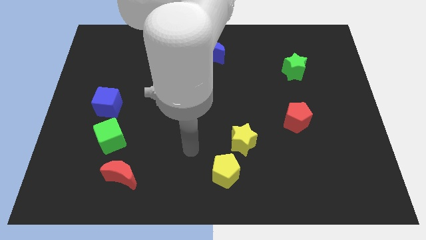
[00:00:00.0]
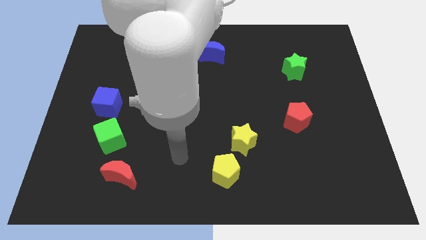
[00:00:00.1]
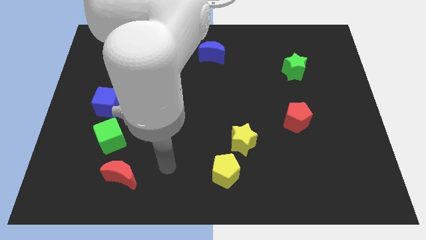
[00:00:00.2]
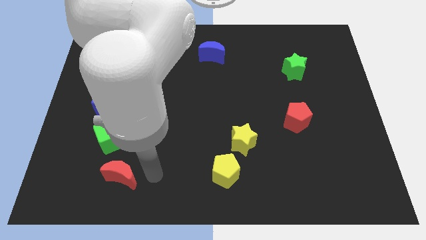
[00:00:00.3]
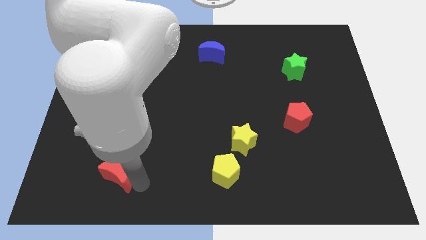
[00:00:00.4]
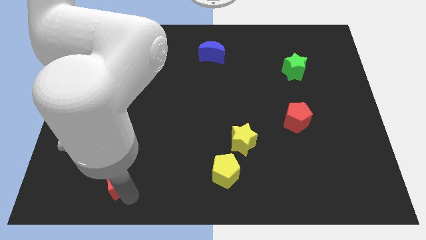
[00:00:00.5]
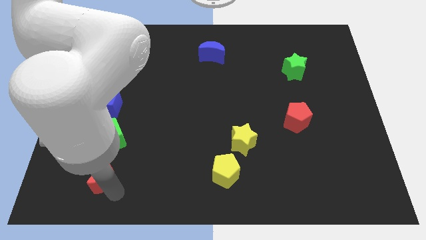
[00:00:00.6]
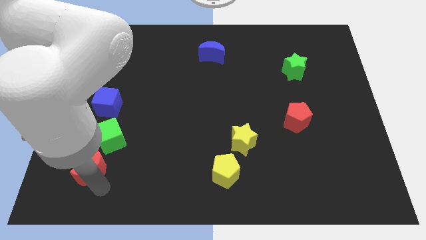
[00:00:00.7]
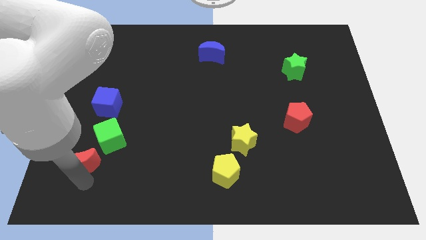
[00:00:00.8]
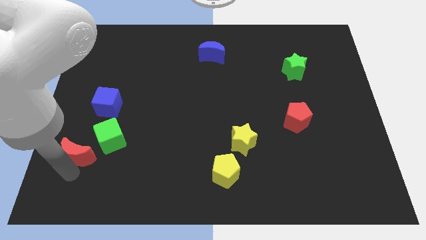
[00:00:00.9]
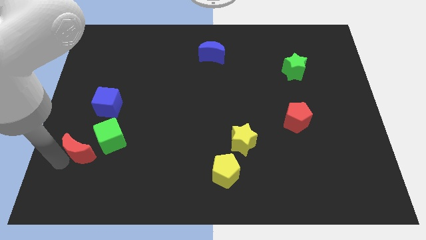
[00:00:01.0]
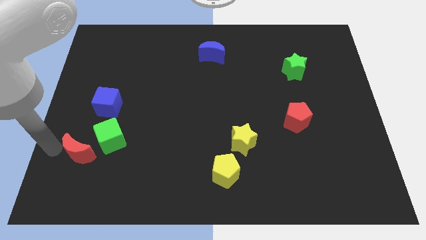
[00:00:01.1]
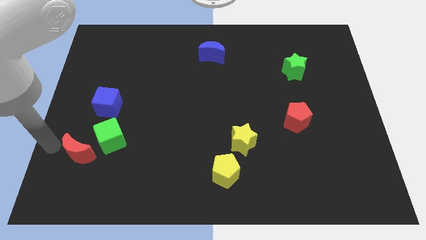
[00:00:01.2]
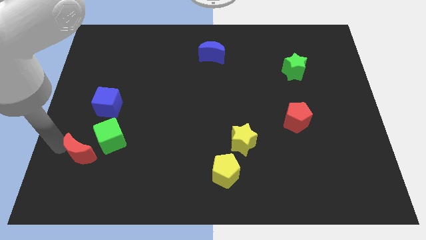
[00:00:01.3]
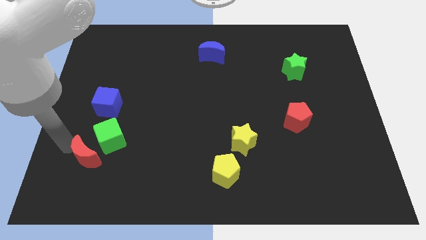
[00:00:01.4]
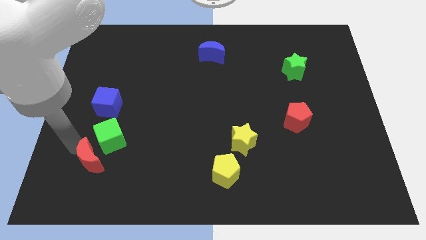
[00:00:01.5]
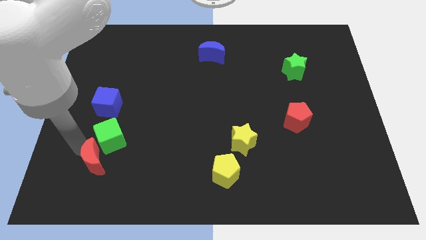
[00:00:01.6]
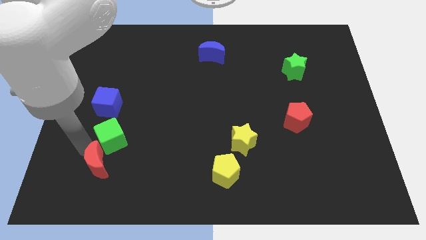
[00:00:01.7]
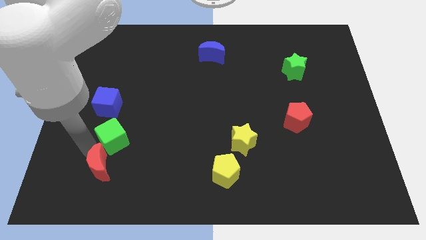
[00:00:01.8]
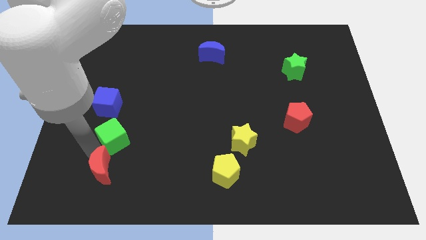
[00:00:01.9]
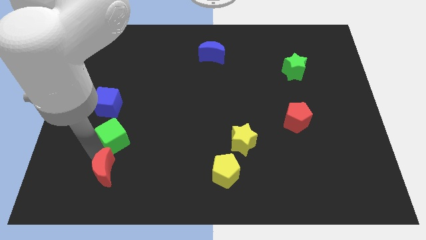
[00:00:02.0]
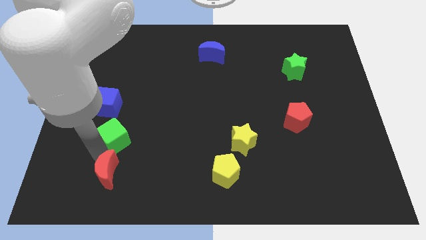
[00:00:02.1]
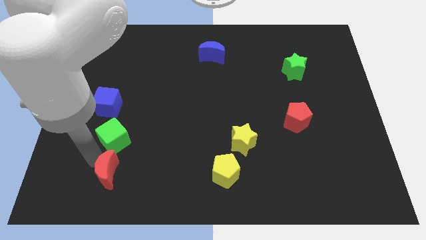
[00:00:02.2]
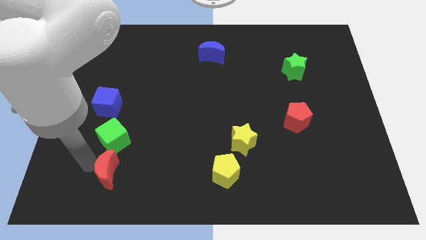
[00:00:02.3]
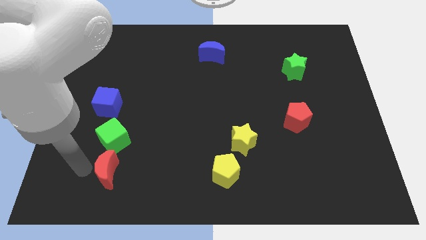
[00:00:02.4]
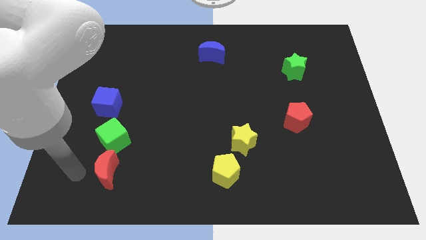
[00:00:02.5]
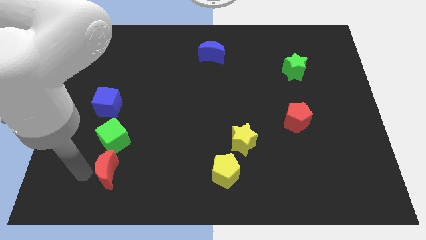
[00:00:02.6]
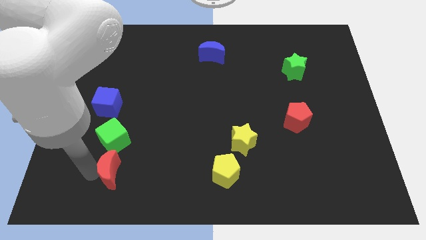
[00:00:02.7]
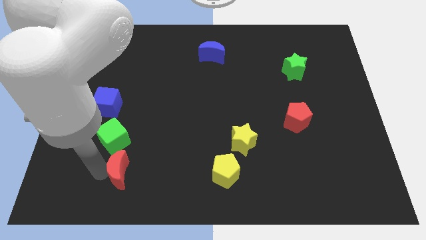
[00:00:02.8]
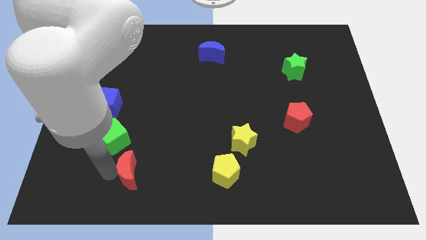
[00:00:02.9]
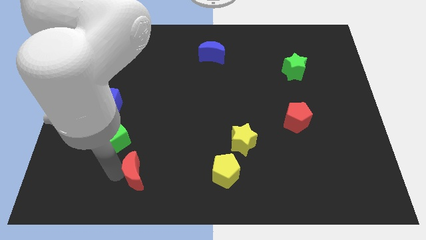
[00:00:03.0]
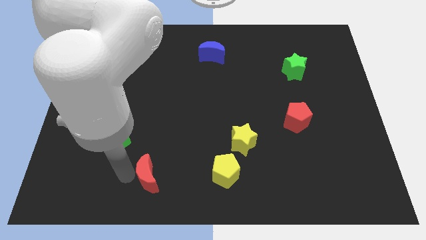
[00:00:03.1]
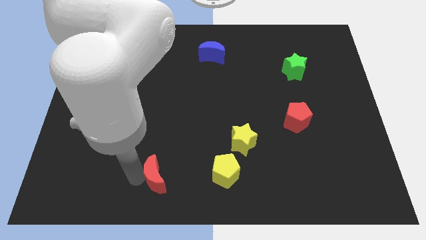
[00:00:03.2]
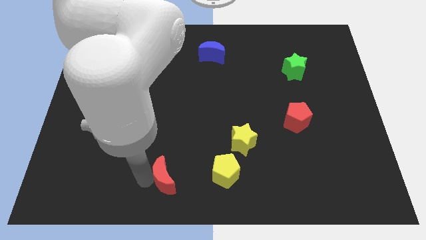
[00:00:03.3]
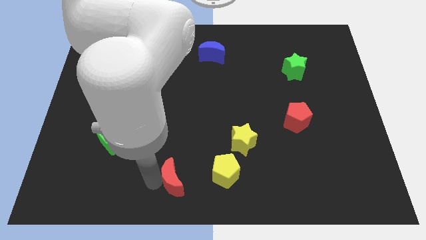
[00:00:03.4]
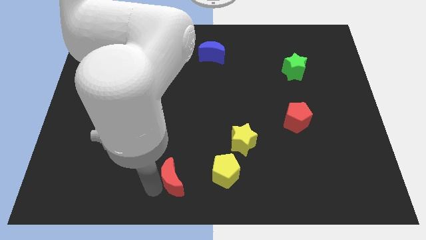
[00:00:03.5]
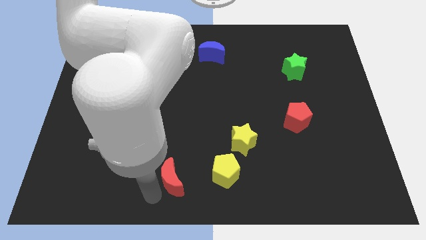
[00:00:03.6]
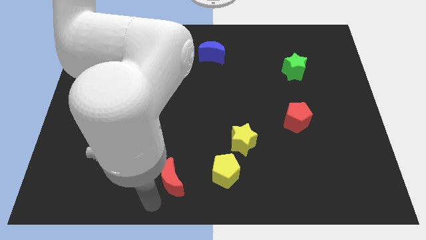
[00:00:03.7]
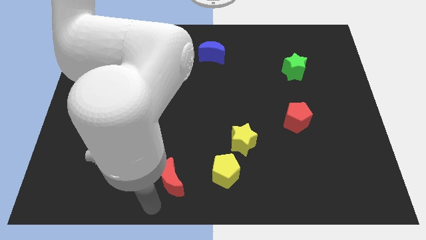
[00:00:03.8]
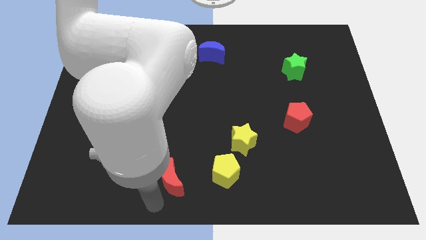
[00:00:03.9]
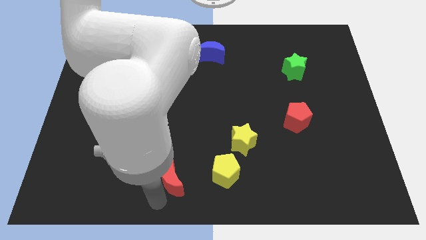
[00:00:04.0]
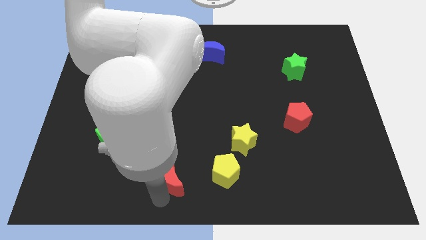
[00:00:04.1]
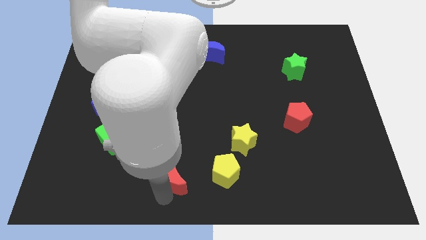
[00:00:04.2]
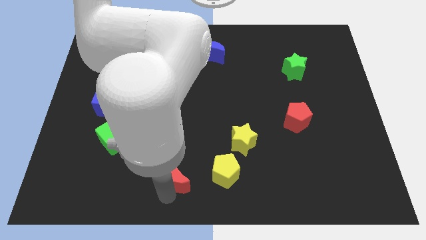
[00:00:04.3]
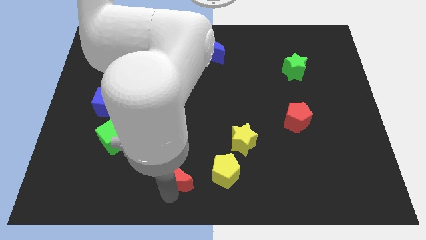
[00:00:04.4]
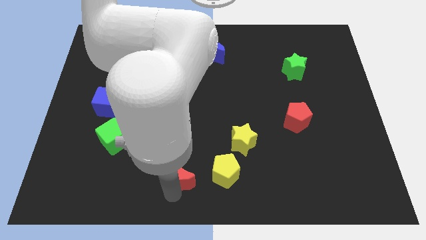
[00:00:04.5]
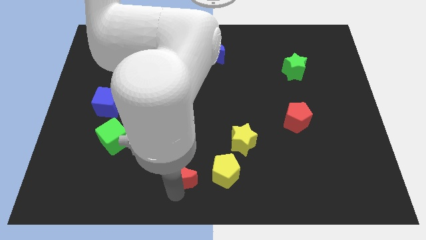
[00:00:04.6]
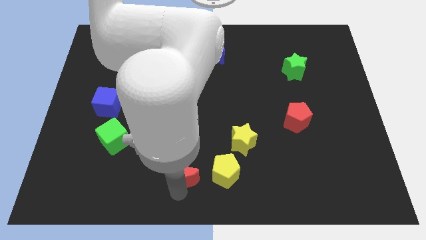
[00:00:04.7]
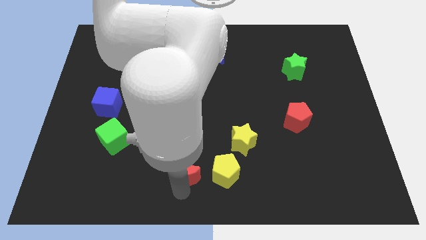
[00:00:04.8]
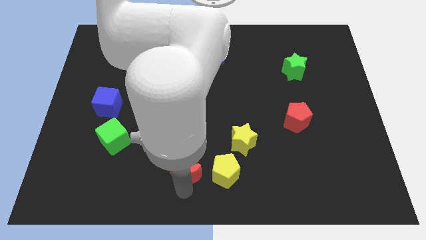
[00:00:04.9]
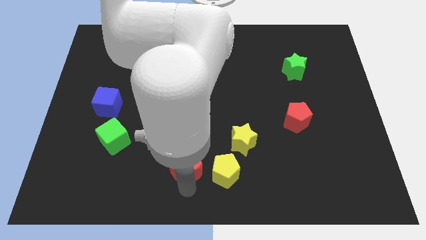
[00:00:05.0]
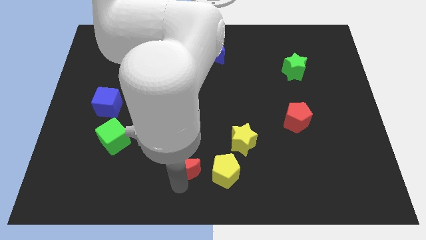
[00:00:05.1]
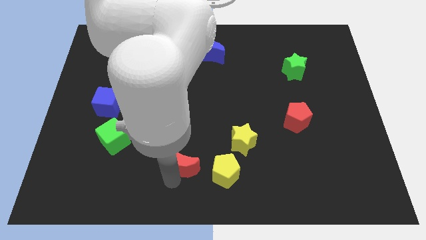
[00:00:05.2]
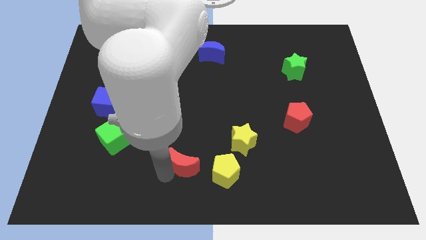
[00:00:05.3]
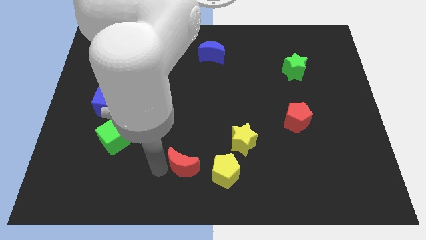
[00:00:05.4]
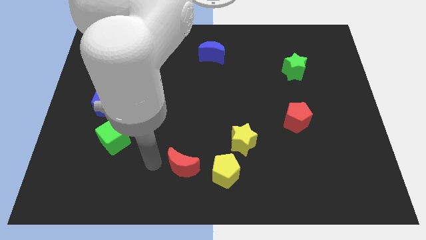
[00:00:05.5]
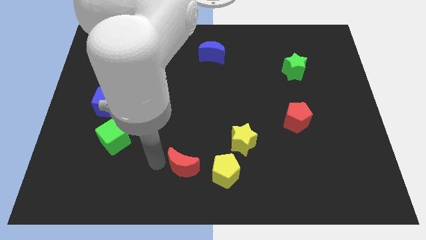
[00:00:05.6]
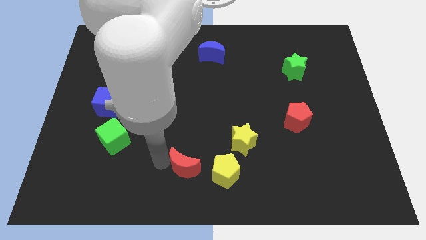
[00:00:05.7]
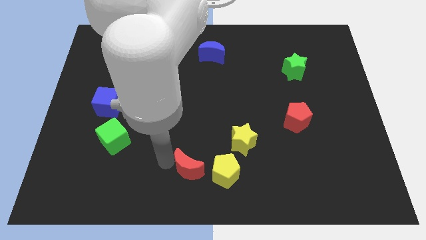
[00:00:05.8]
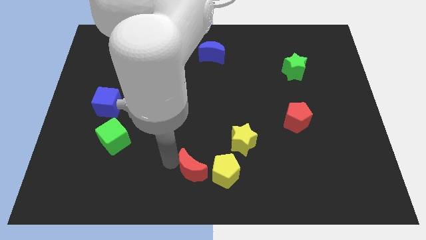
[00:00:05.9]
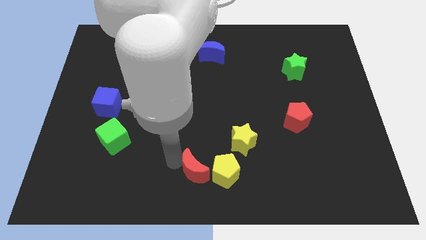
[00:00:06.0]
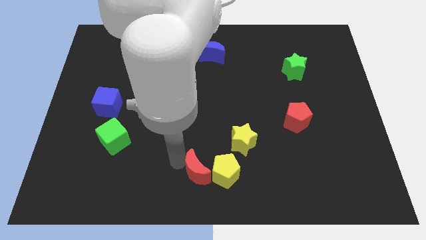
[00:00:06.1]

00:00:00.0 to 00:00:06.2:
move the red moon next to the yellow pentagon
